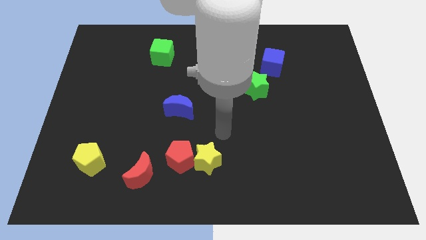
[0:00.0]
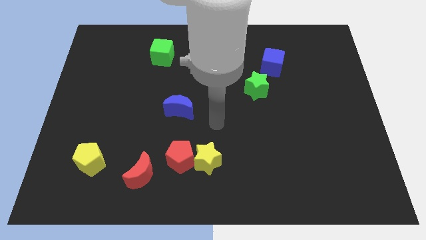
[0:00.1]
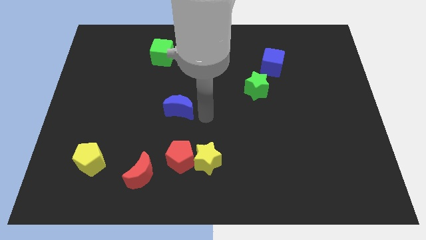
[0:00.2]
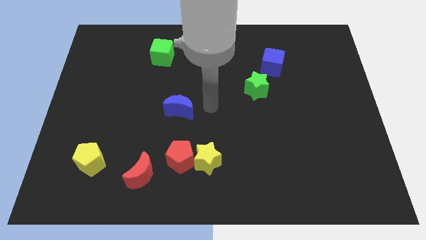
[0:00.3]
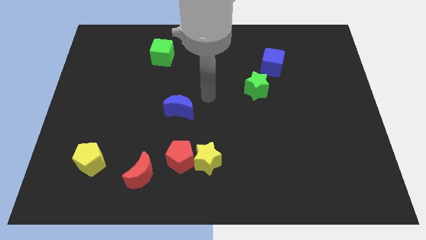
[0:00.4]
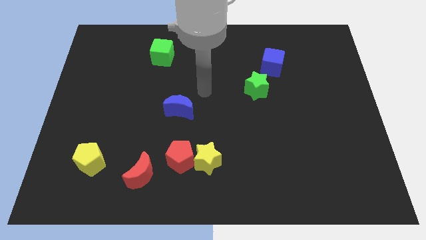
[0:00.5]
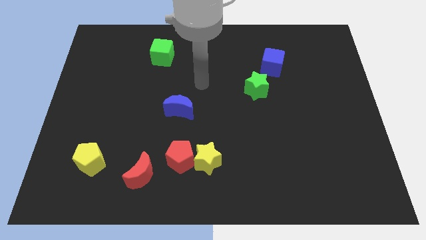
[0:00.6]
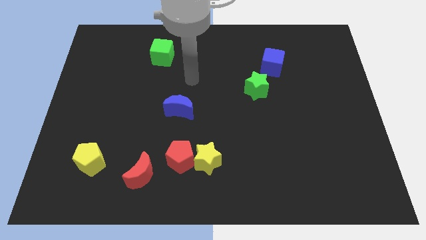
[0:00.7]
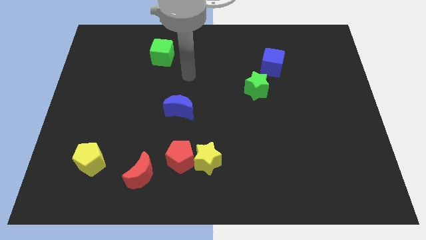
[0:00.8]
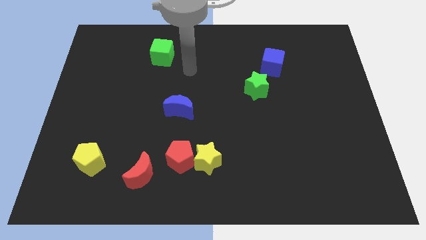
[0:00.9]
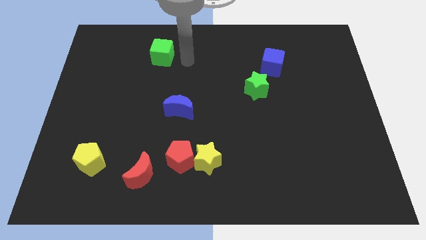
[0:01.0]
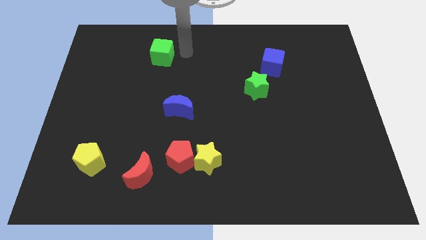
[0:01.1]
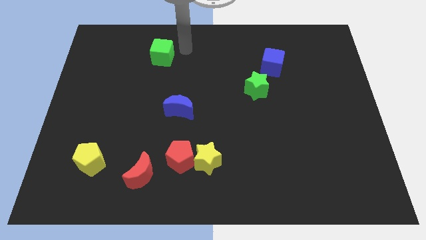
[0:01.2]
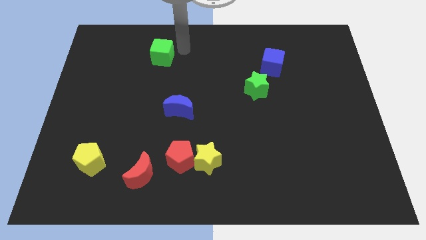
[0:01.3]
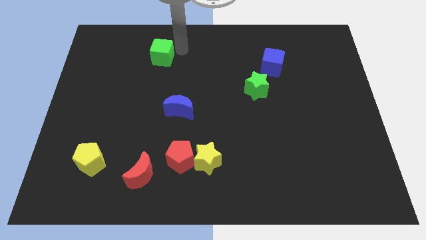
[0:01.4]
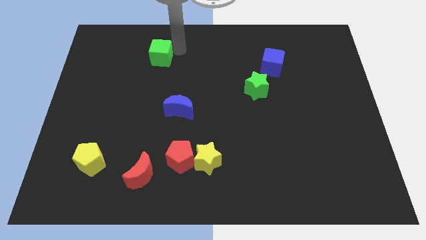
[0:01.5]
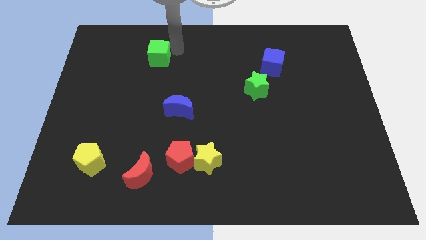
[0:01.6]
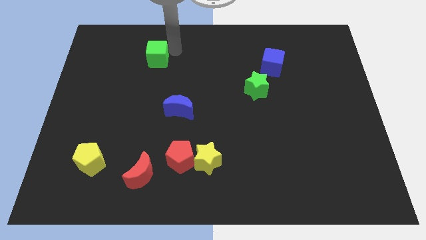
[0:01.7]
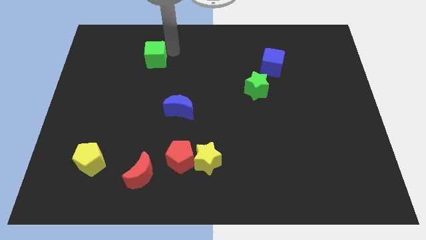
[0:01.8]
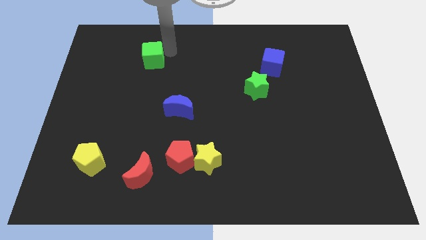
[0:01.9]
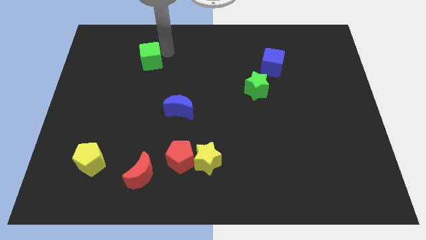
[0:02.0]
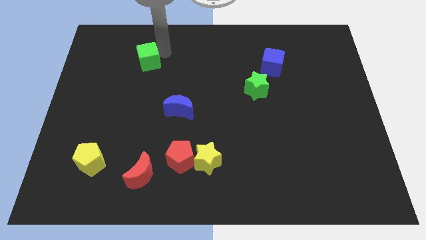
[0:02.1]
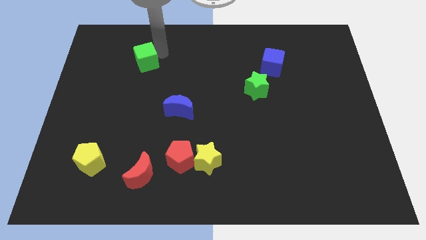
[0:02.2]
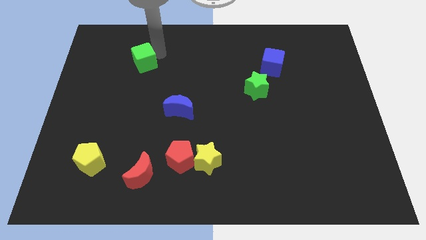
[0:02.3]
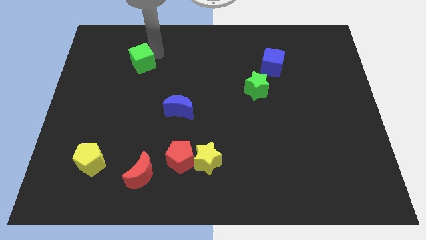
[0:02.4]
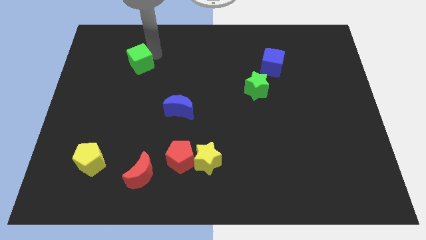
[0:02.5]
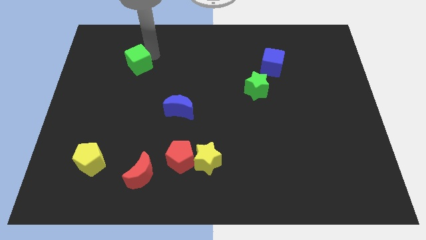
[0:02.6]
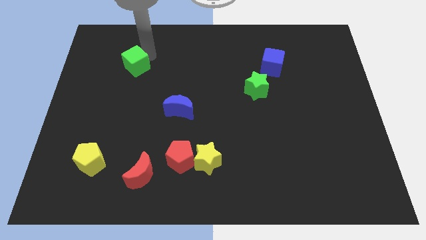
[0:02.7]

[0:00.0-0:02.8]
push the green cube down and to the left diagonally slightly

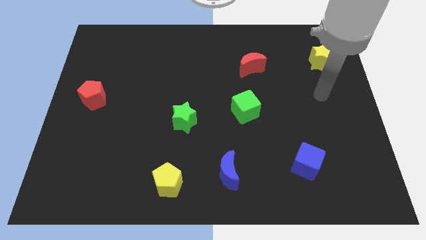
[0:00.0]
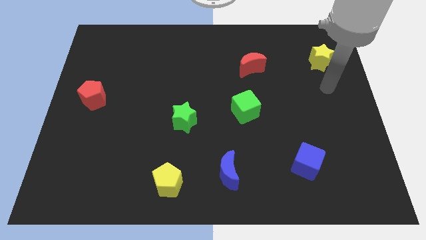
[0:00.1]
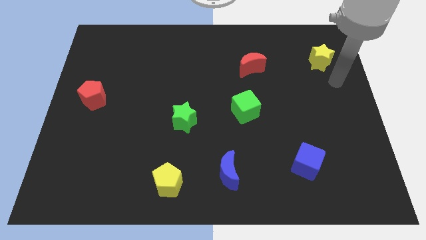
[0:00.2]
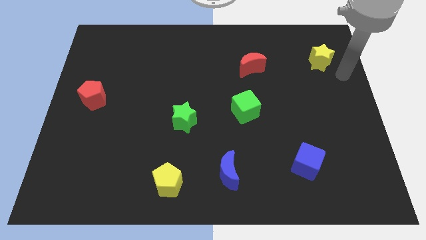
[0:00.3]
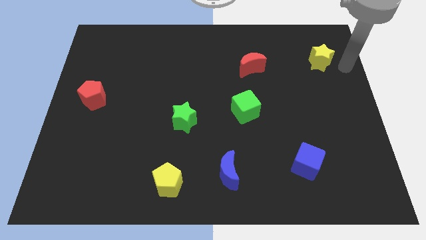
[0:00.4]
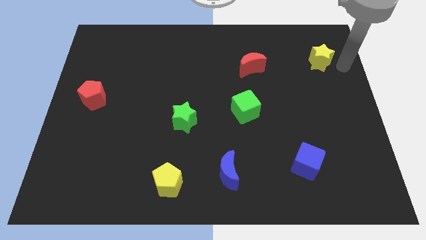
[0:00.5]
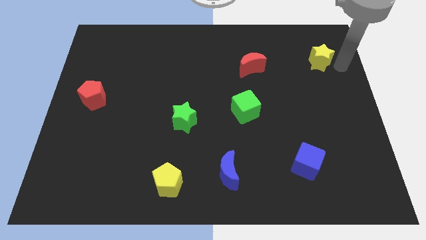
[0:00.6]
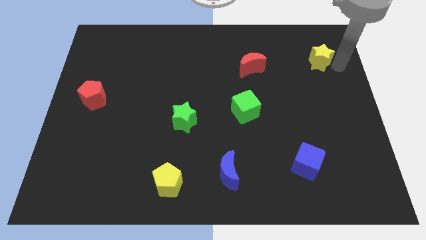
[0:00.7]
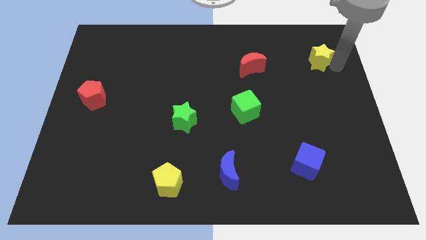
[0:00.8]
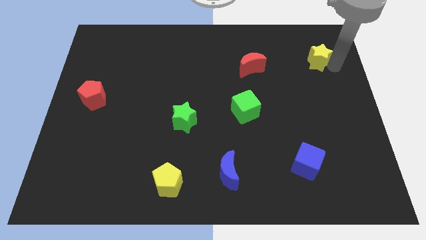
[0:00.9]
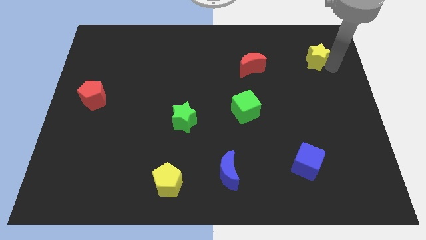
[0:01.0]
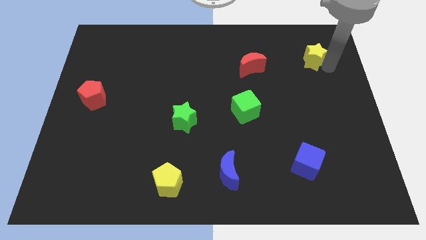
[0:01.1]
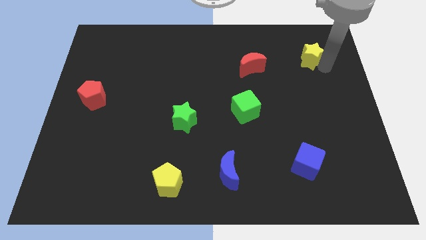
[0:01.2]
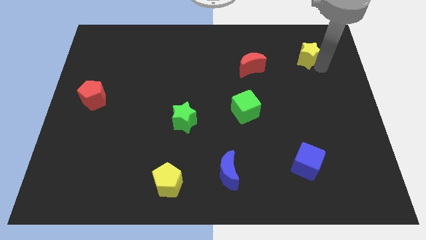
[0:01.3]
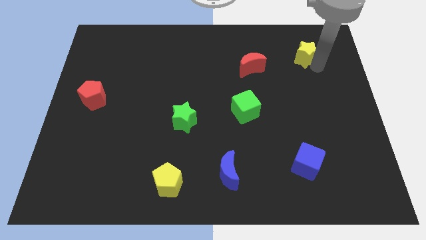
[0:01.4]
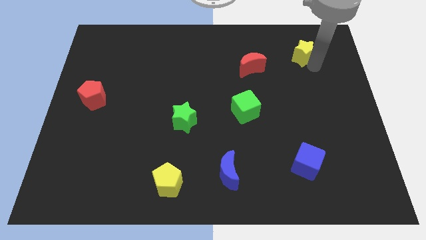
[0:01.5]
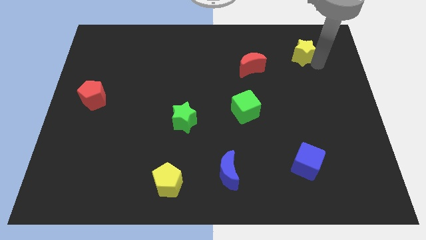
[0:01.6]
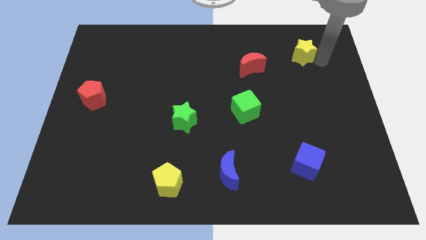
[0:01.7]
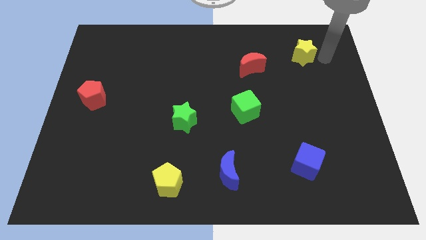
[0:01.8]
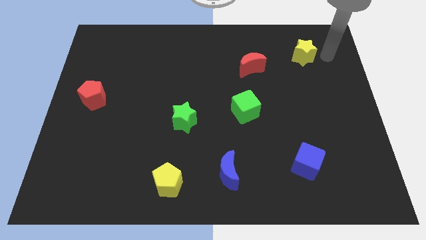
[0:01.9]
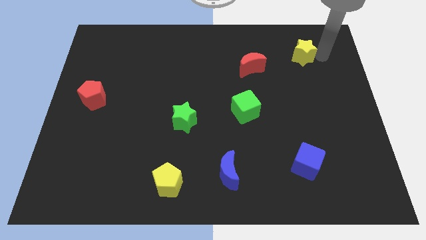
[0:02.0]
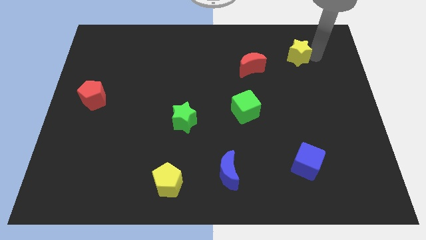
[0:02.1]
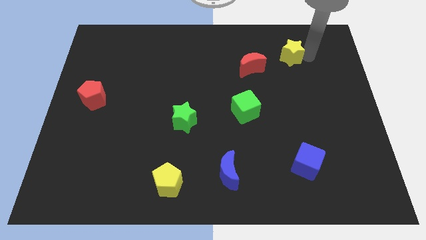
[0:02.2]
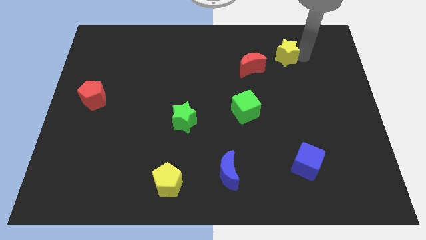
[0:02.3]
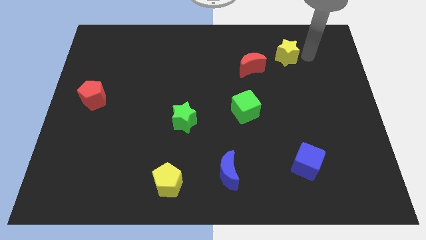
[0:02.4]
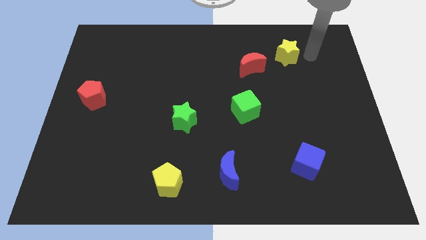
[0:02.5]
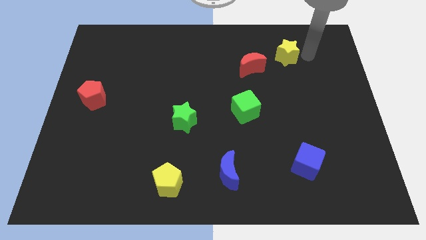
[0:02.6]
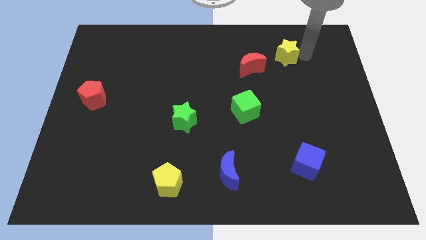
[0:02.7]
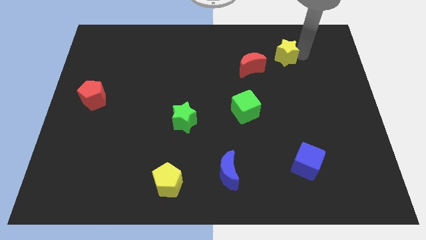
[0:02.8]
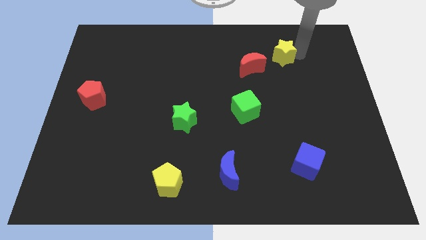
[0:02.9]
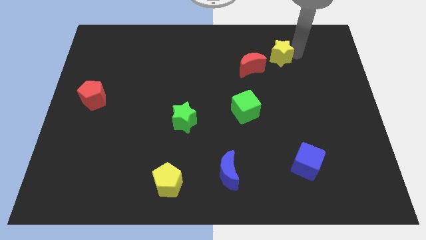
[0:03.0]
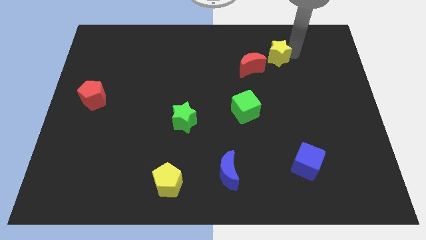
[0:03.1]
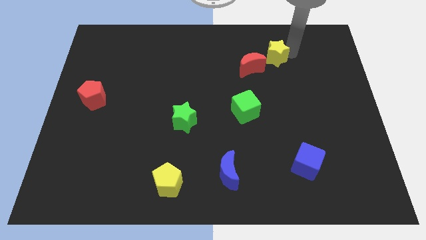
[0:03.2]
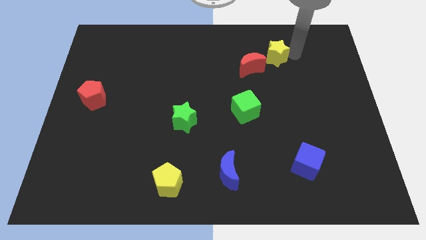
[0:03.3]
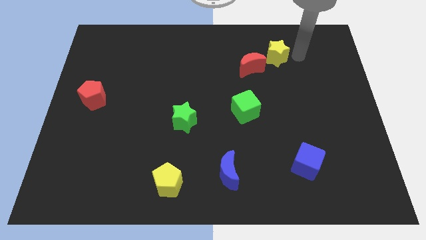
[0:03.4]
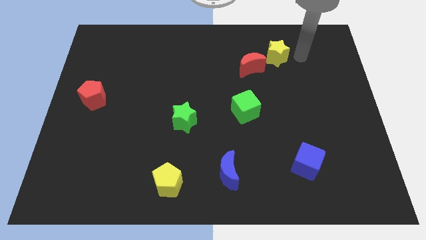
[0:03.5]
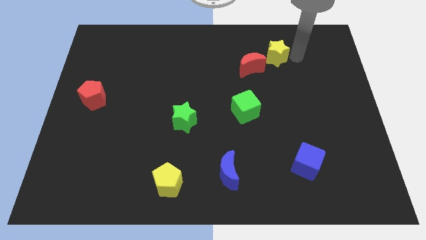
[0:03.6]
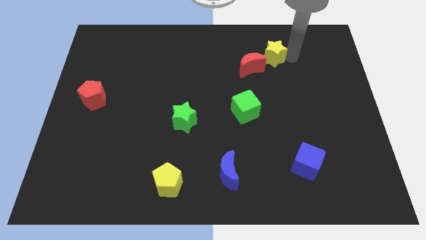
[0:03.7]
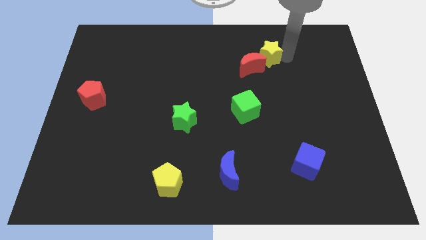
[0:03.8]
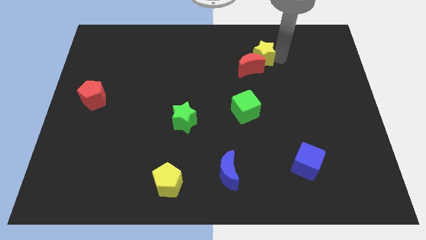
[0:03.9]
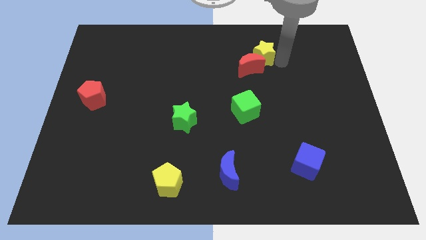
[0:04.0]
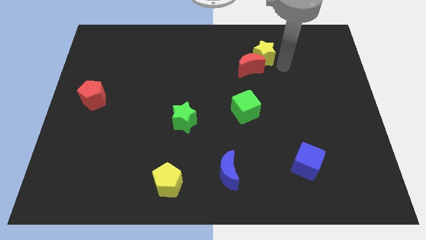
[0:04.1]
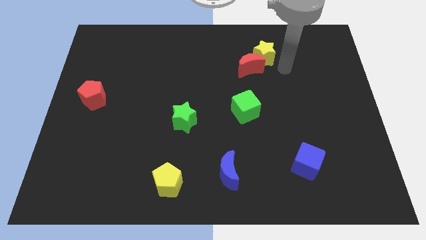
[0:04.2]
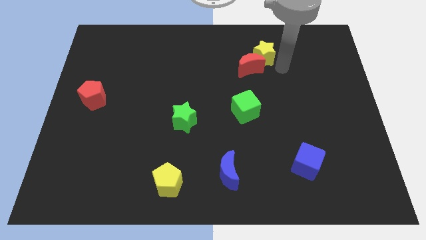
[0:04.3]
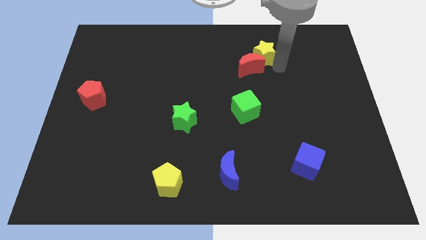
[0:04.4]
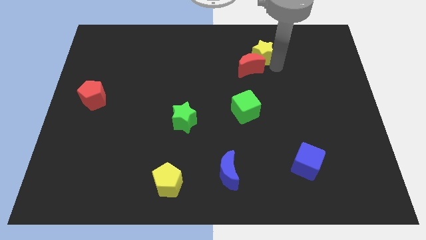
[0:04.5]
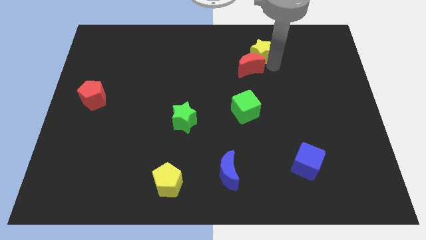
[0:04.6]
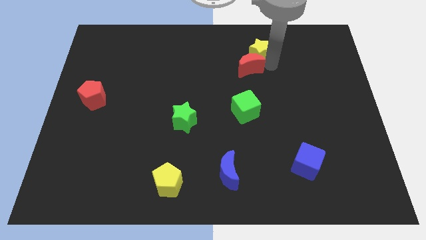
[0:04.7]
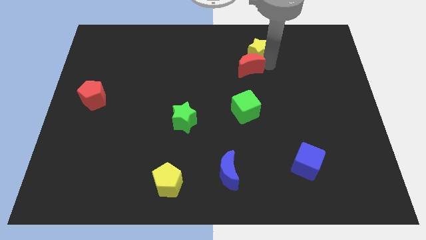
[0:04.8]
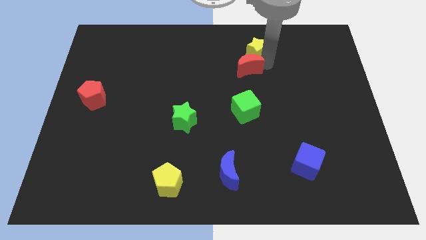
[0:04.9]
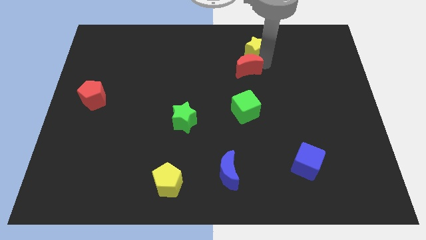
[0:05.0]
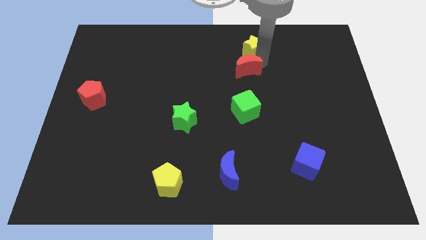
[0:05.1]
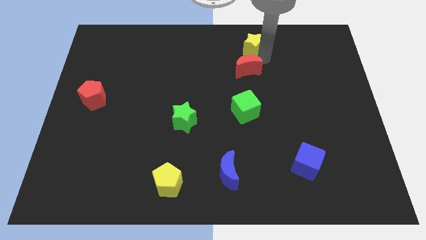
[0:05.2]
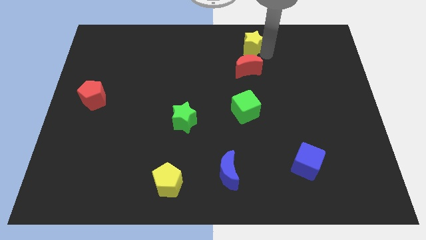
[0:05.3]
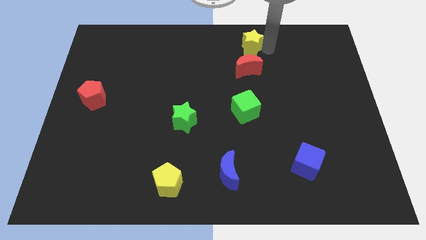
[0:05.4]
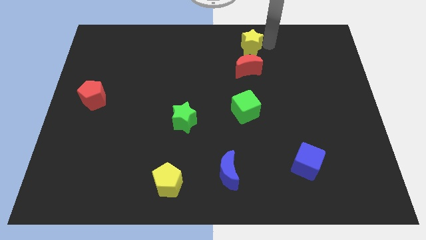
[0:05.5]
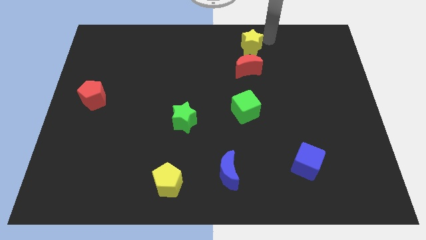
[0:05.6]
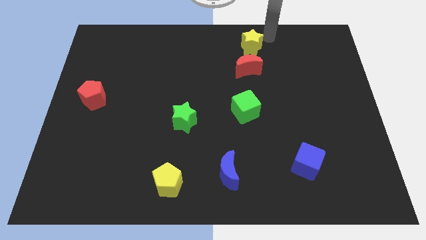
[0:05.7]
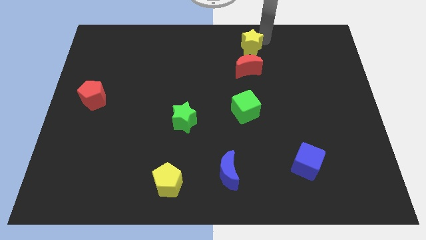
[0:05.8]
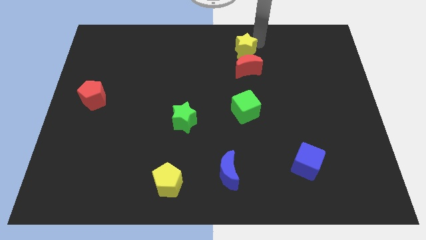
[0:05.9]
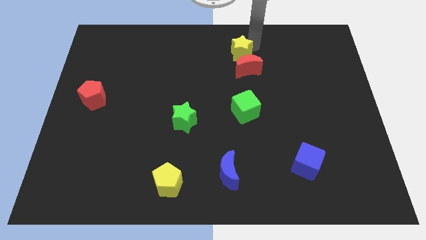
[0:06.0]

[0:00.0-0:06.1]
slide the yellow star left
